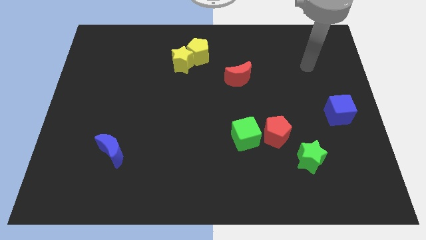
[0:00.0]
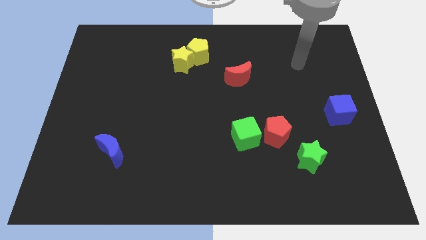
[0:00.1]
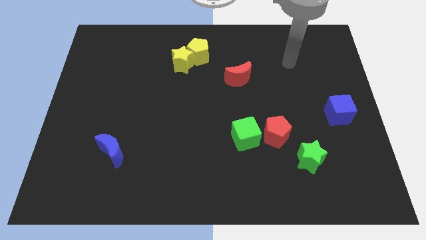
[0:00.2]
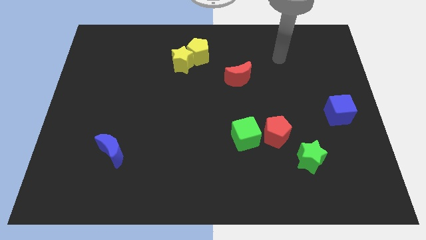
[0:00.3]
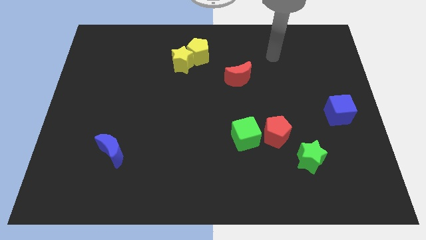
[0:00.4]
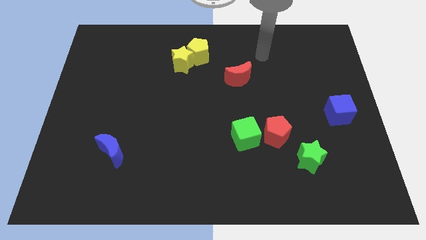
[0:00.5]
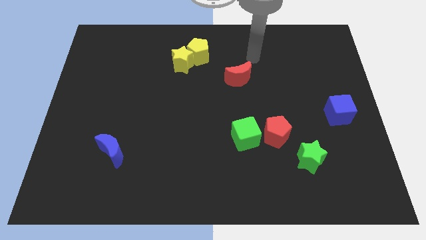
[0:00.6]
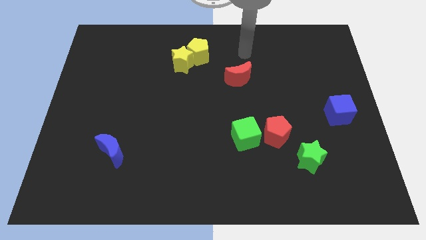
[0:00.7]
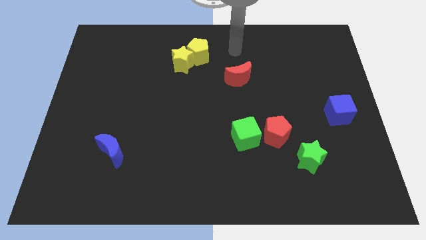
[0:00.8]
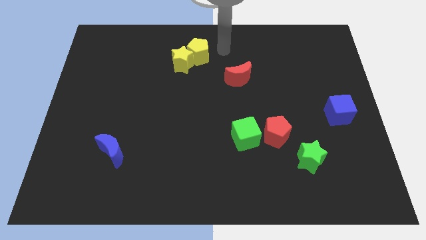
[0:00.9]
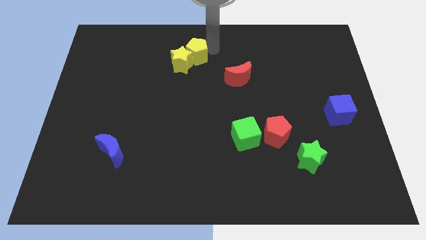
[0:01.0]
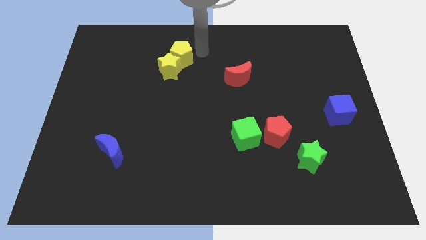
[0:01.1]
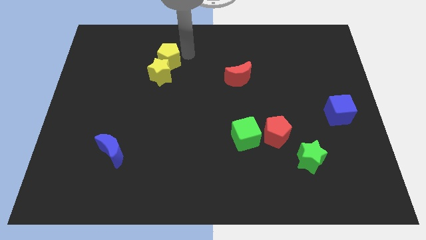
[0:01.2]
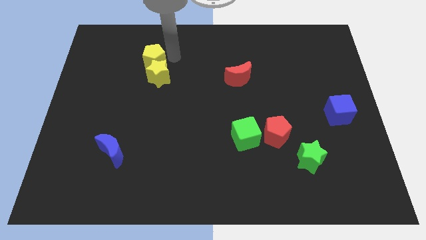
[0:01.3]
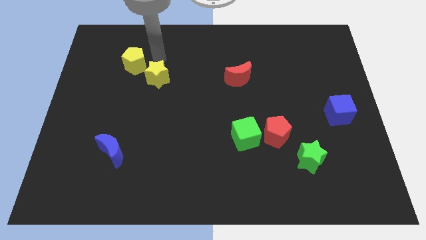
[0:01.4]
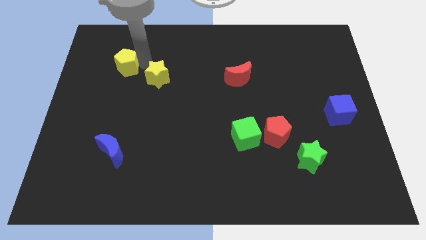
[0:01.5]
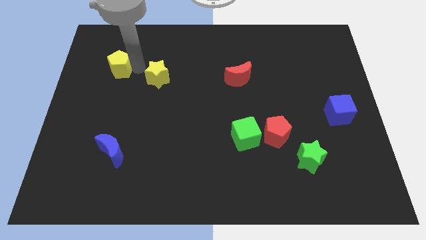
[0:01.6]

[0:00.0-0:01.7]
separate the yellow star from the yellow pentagon

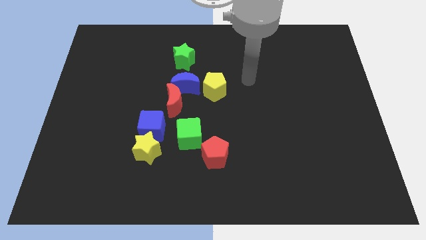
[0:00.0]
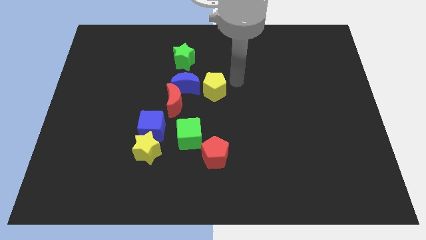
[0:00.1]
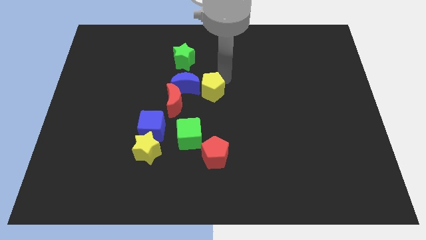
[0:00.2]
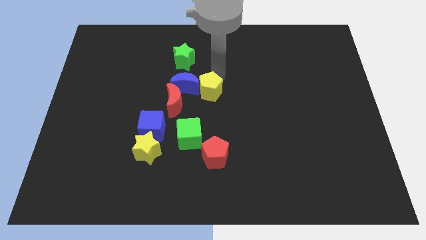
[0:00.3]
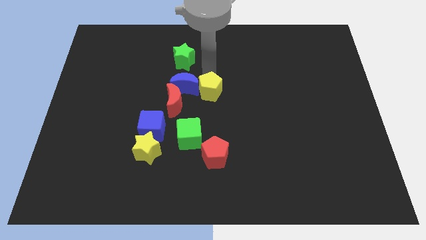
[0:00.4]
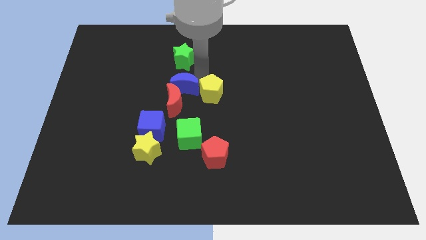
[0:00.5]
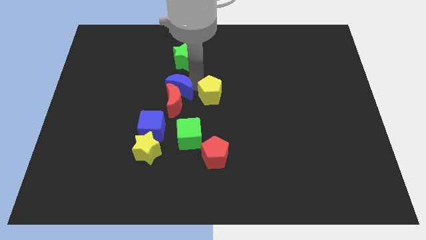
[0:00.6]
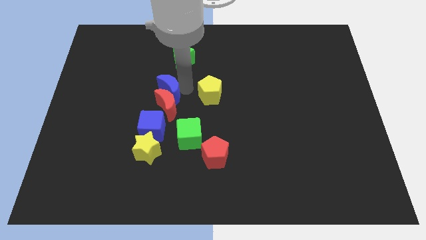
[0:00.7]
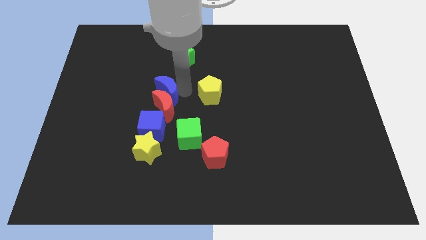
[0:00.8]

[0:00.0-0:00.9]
separate the yellow pentagon from the blue moon

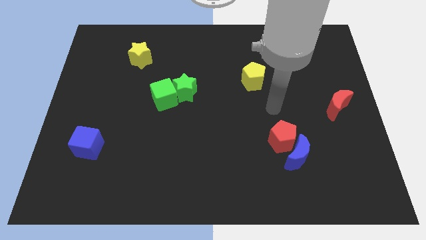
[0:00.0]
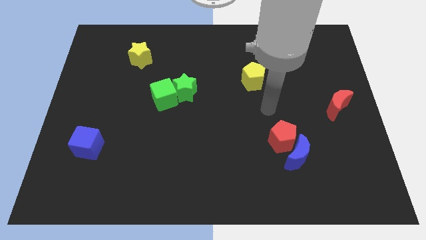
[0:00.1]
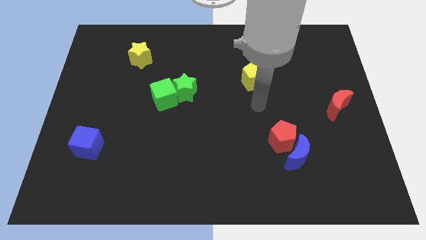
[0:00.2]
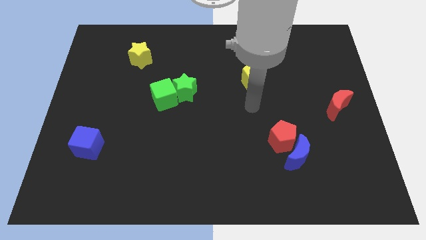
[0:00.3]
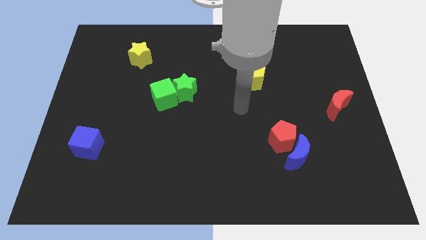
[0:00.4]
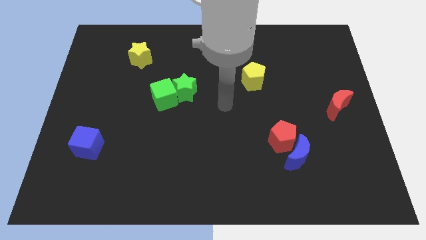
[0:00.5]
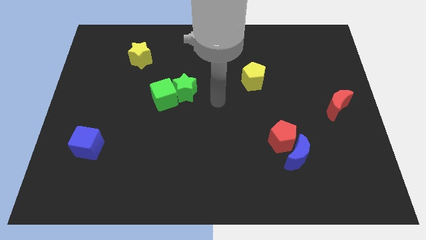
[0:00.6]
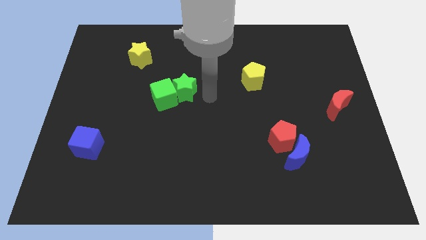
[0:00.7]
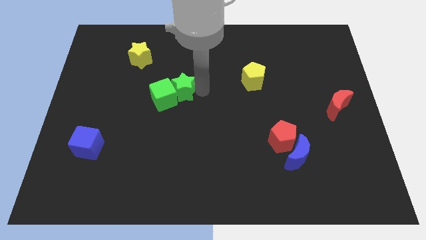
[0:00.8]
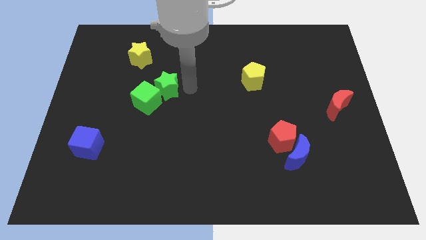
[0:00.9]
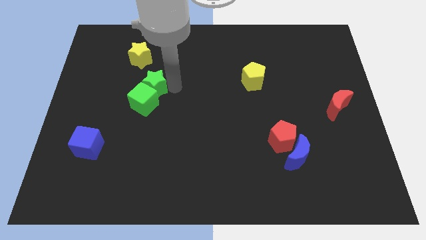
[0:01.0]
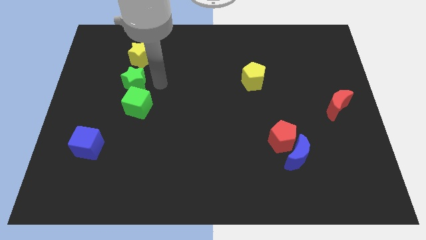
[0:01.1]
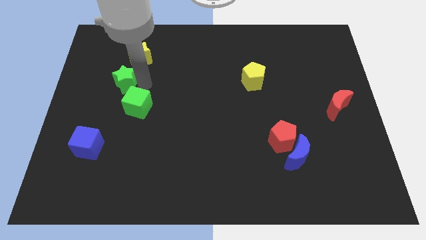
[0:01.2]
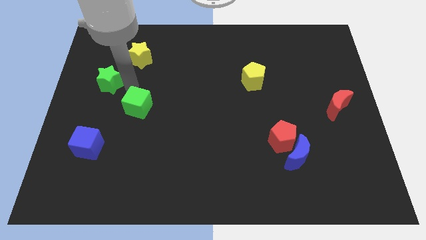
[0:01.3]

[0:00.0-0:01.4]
separate the green cube from the green star

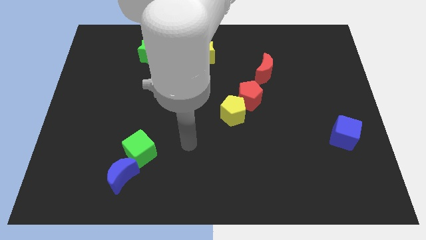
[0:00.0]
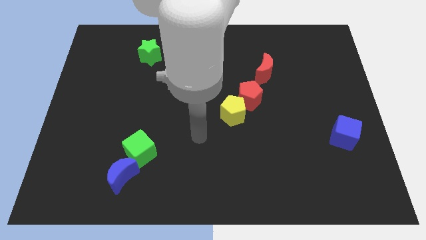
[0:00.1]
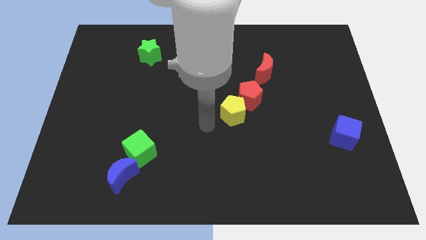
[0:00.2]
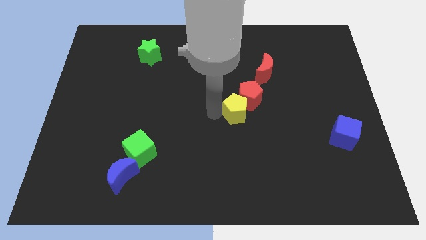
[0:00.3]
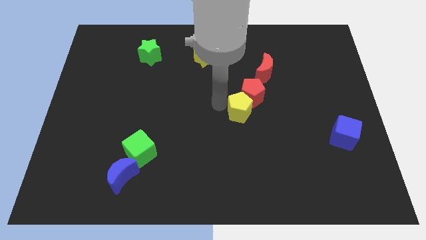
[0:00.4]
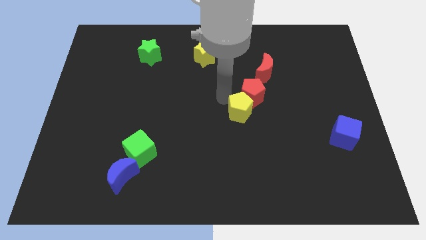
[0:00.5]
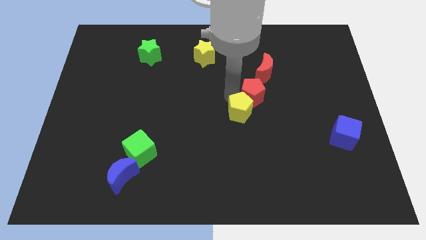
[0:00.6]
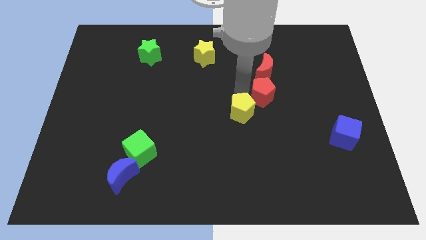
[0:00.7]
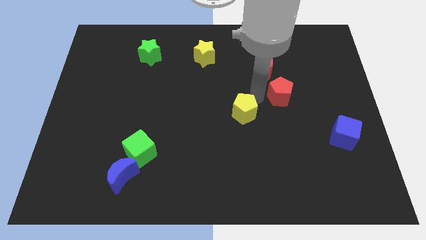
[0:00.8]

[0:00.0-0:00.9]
move the yellow pentagon away from the red pentagon

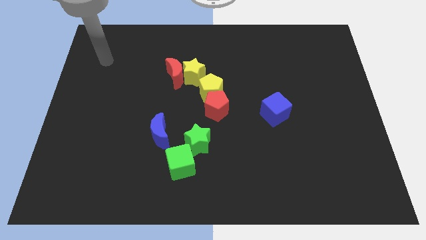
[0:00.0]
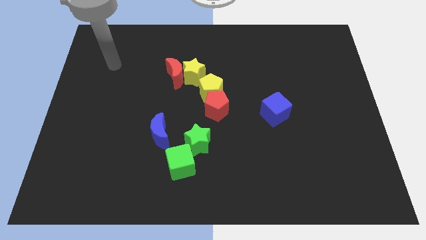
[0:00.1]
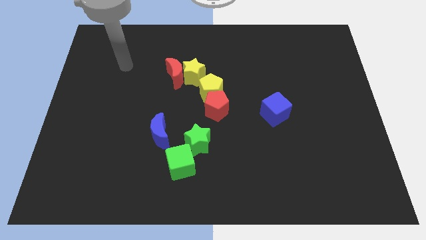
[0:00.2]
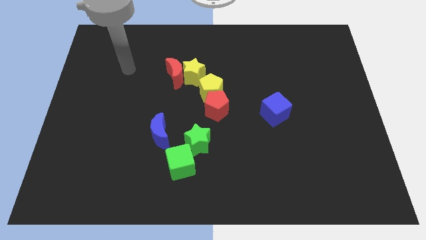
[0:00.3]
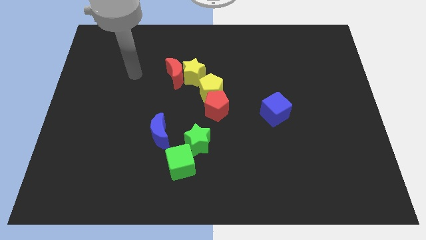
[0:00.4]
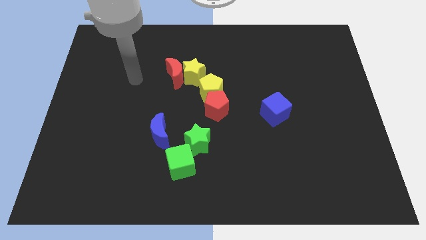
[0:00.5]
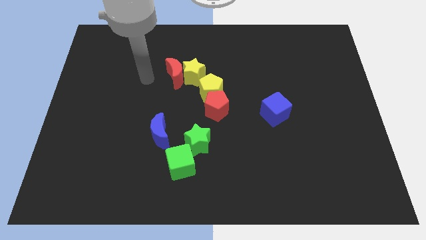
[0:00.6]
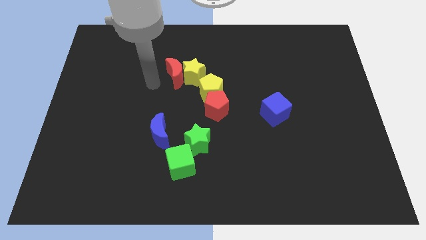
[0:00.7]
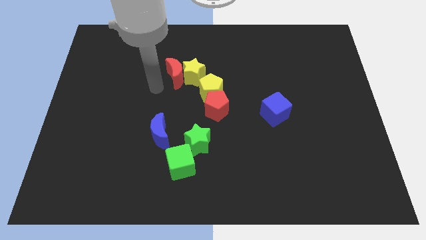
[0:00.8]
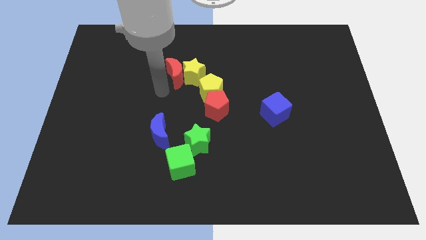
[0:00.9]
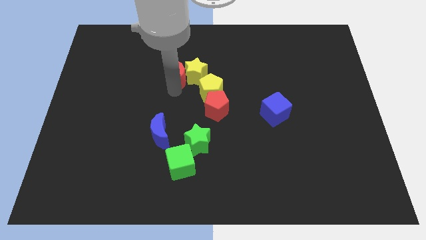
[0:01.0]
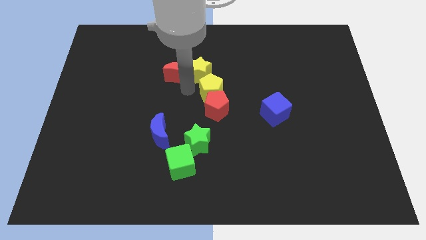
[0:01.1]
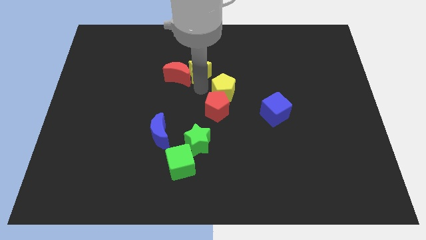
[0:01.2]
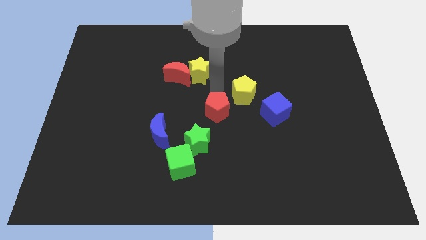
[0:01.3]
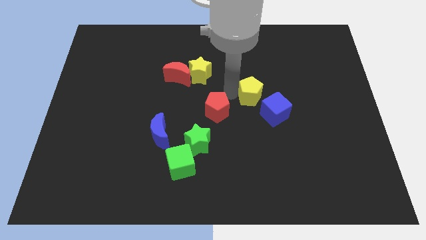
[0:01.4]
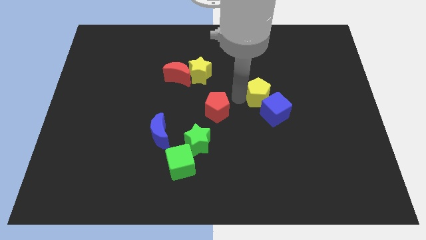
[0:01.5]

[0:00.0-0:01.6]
separate the red pentagon from the yellow pentagon

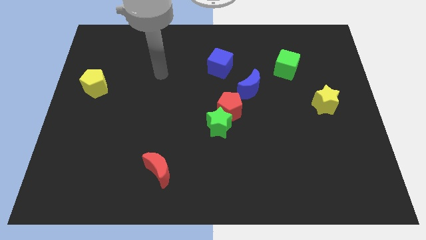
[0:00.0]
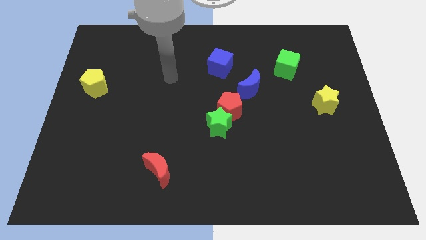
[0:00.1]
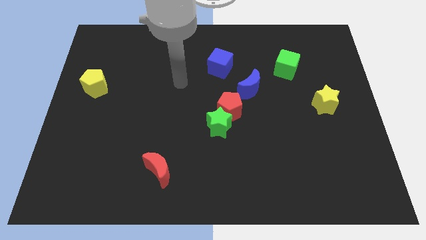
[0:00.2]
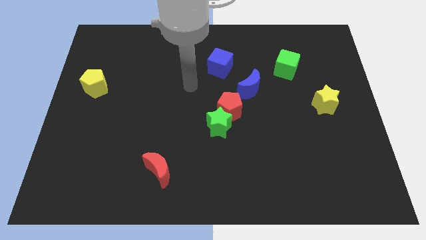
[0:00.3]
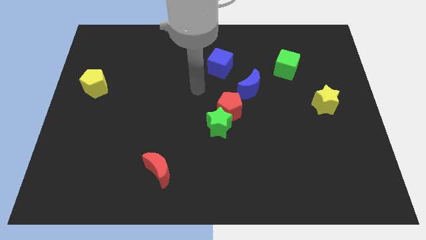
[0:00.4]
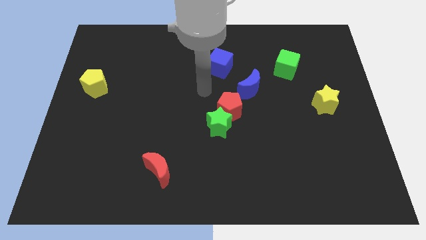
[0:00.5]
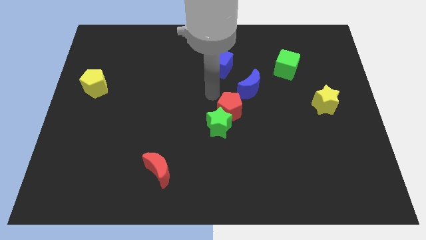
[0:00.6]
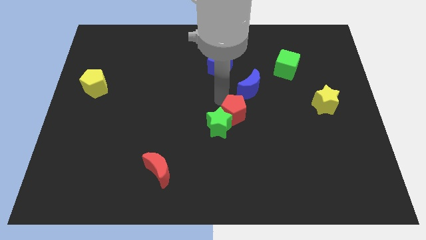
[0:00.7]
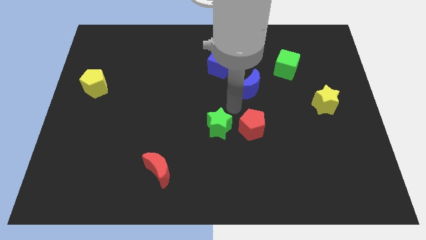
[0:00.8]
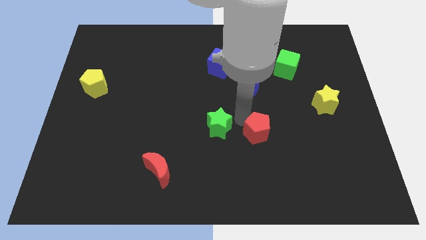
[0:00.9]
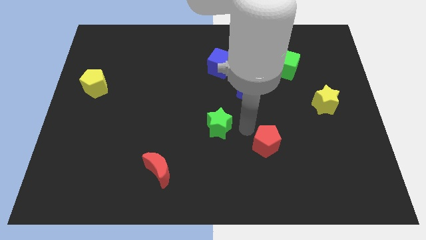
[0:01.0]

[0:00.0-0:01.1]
pull the green star apart from the red pentagon

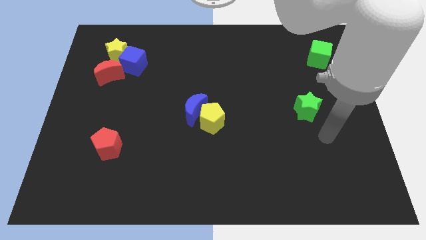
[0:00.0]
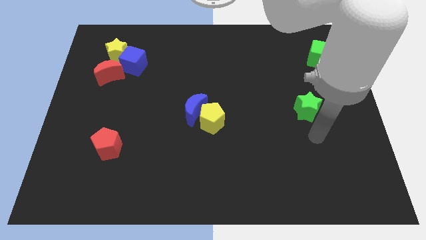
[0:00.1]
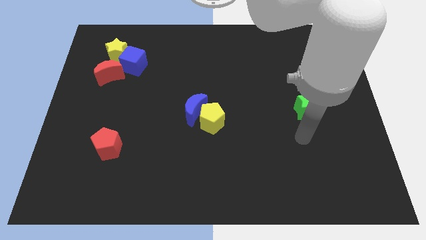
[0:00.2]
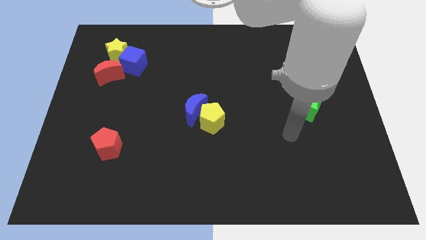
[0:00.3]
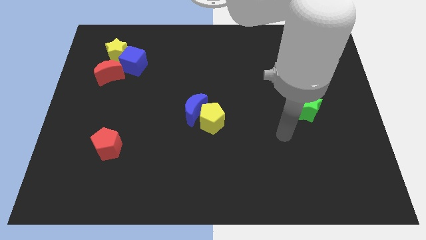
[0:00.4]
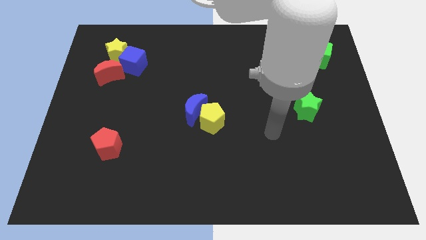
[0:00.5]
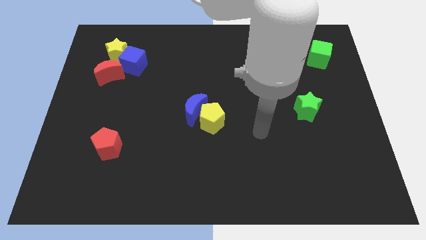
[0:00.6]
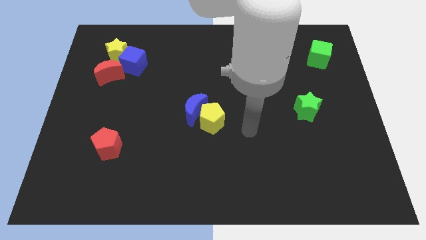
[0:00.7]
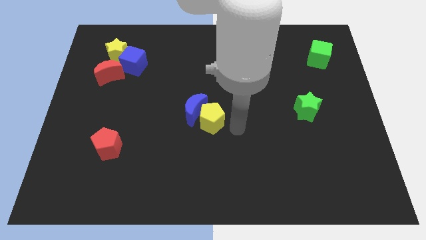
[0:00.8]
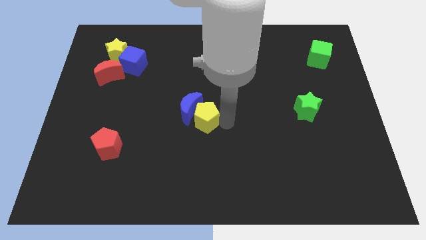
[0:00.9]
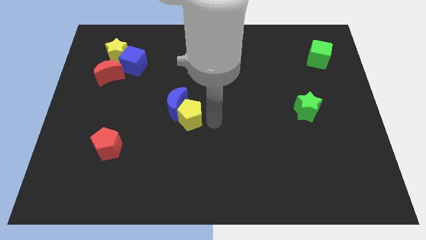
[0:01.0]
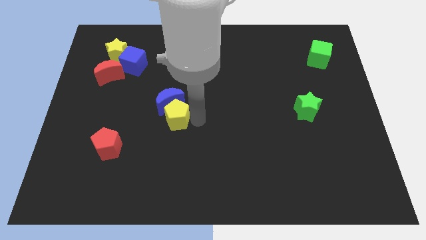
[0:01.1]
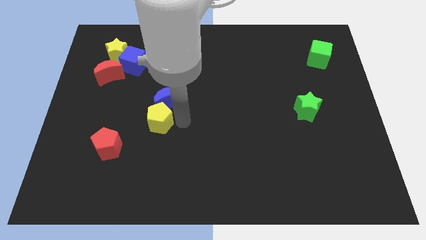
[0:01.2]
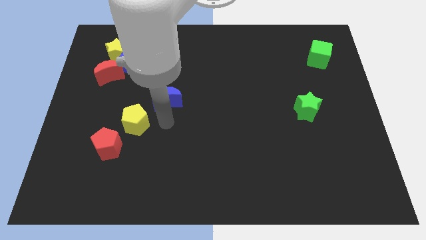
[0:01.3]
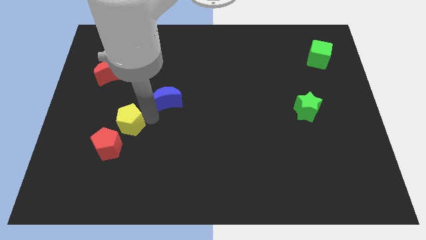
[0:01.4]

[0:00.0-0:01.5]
move the blue moon away from the yellow pentagon

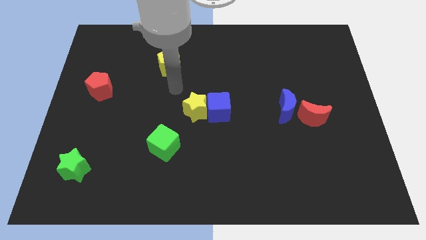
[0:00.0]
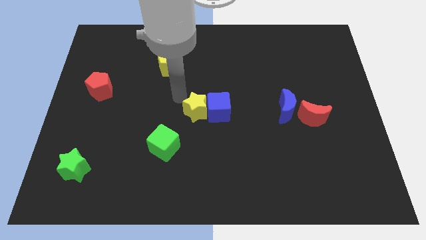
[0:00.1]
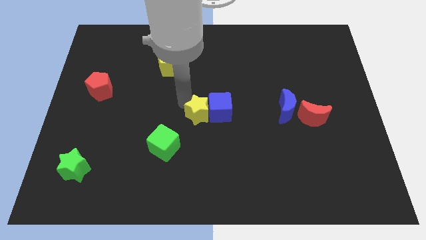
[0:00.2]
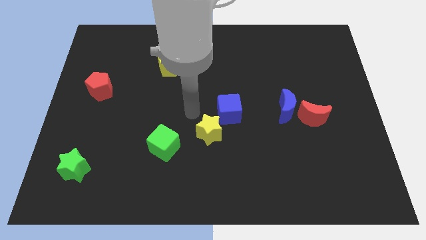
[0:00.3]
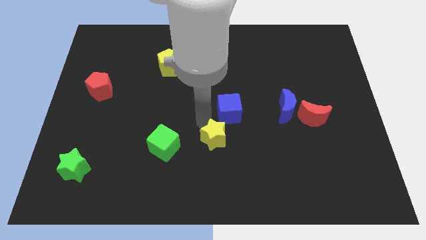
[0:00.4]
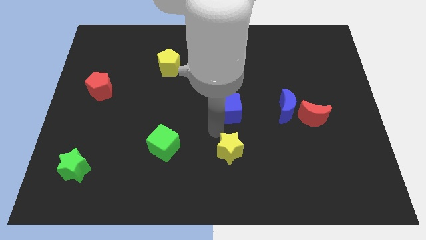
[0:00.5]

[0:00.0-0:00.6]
pull the blue cube apart from the yellow star
